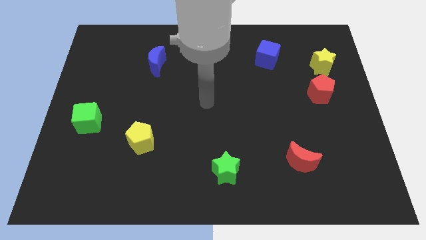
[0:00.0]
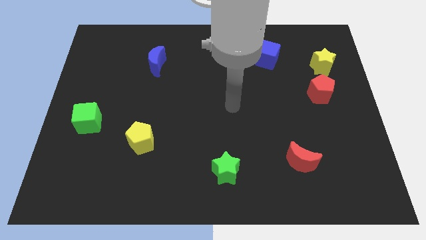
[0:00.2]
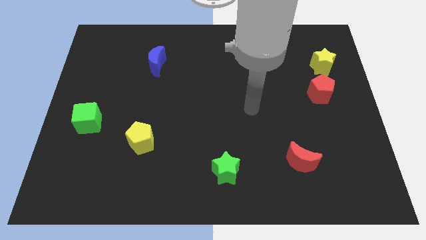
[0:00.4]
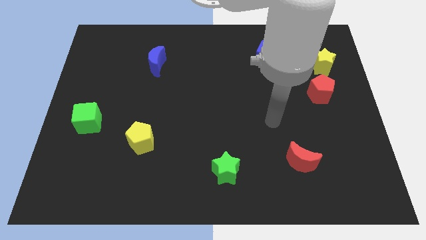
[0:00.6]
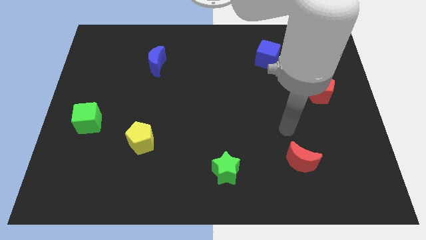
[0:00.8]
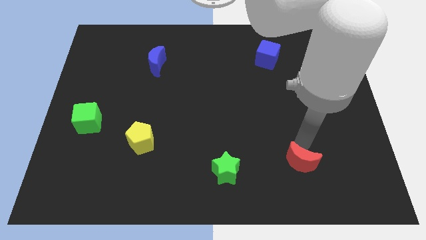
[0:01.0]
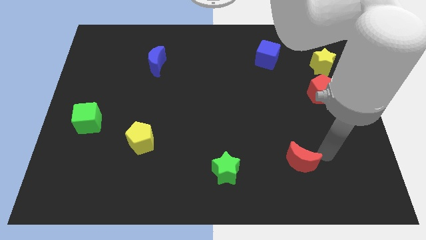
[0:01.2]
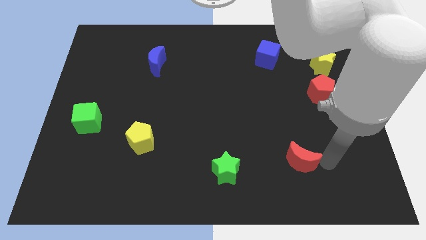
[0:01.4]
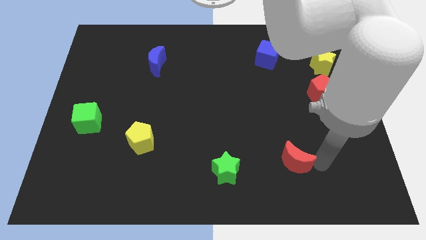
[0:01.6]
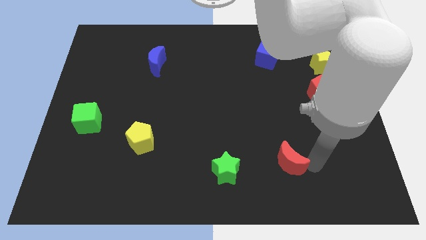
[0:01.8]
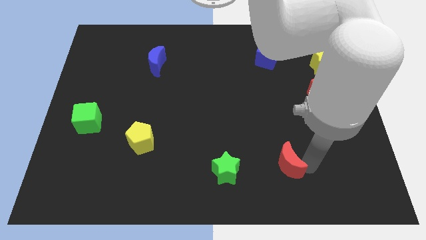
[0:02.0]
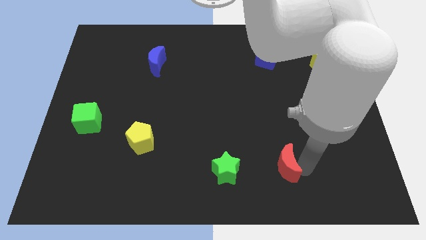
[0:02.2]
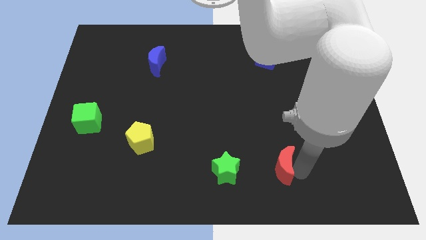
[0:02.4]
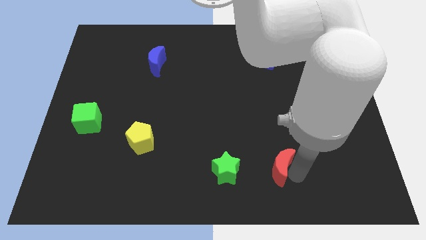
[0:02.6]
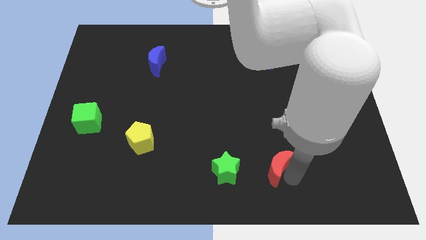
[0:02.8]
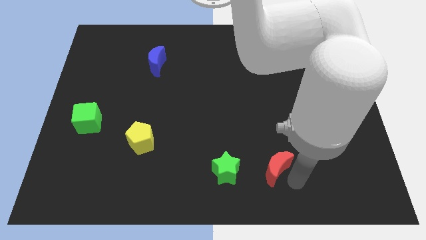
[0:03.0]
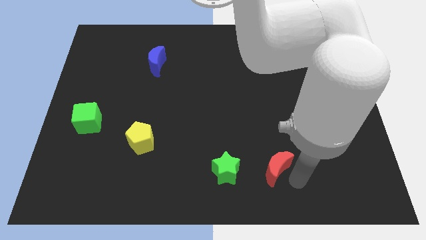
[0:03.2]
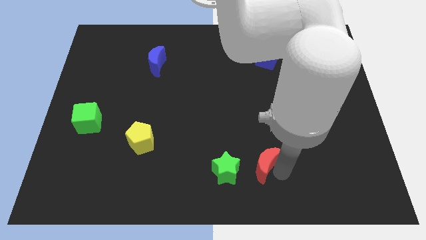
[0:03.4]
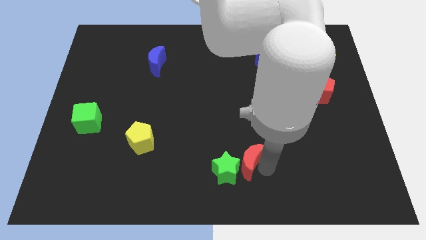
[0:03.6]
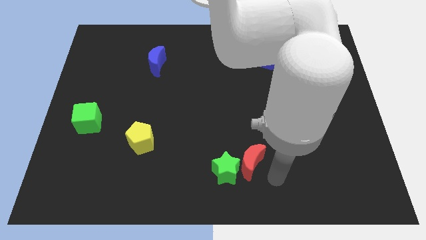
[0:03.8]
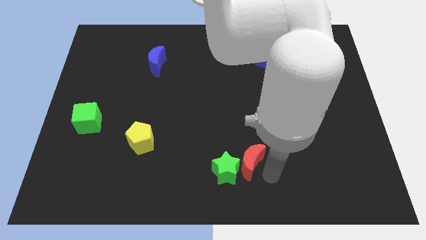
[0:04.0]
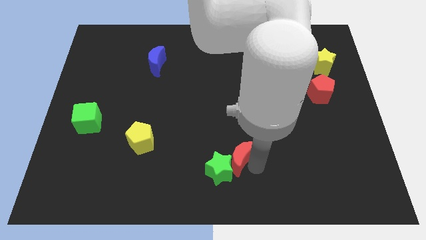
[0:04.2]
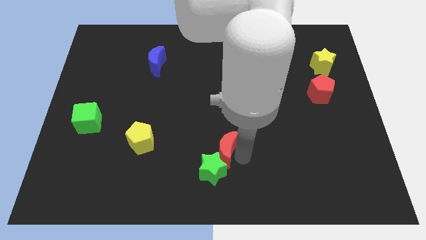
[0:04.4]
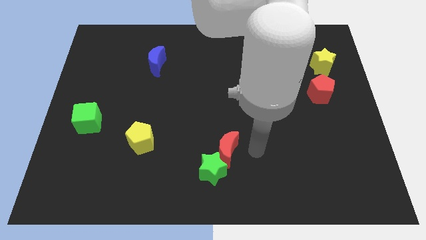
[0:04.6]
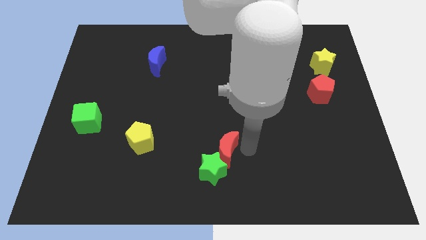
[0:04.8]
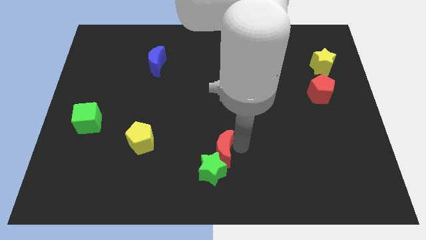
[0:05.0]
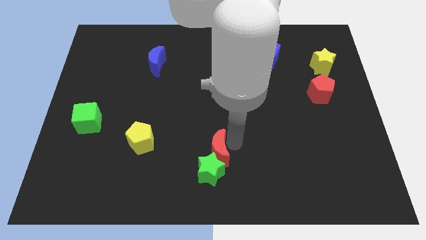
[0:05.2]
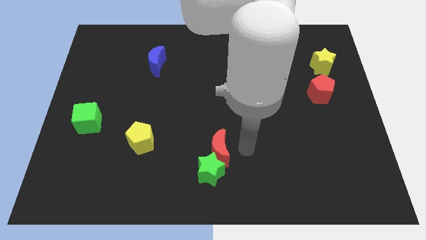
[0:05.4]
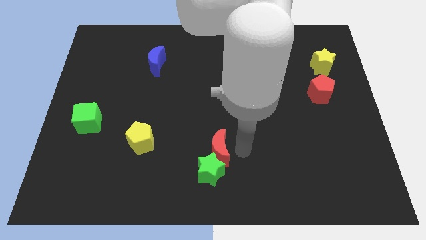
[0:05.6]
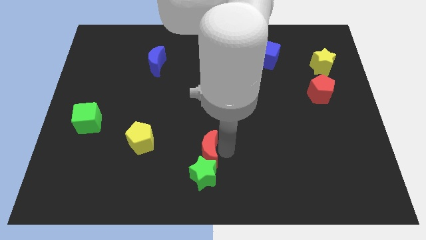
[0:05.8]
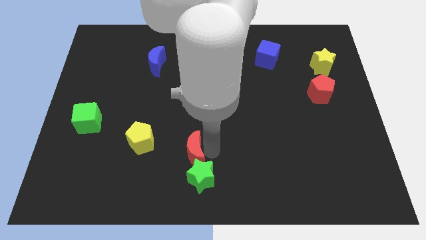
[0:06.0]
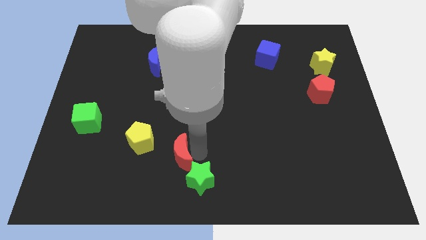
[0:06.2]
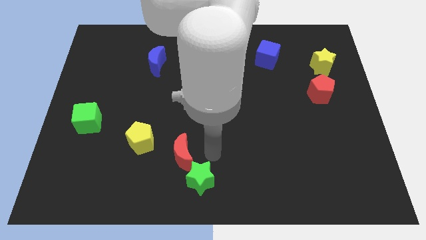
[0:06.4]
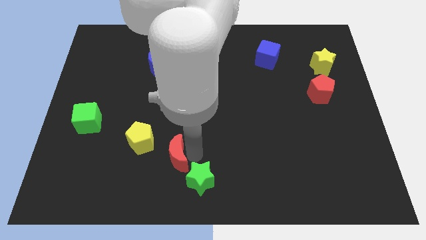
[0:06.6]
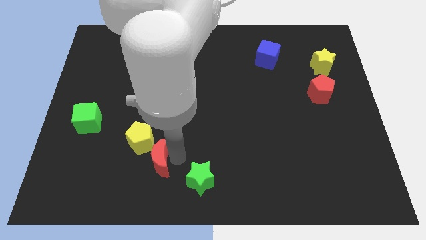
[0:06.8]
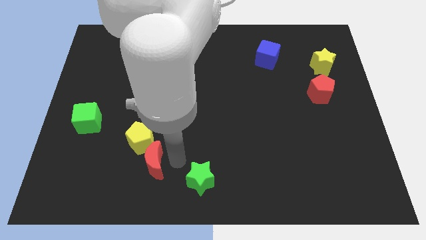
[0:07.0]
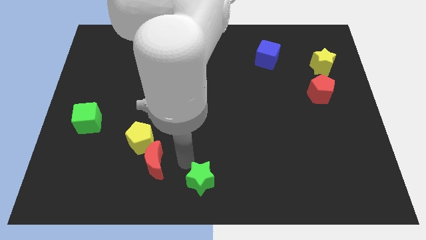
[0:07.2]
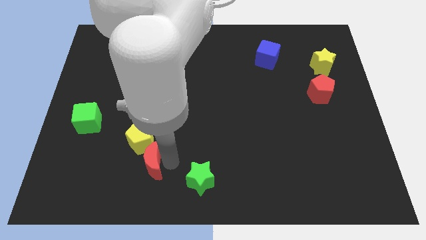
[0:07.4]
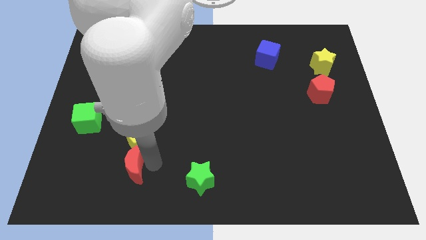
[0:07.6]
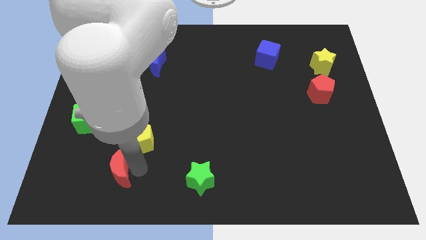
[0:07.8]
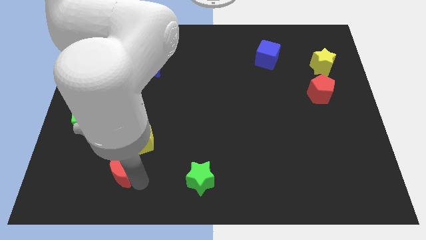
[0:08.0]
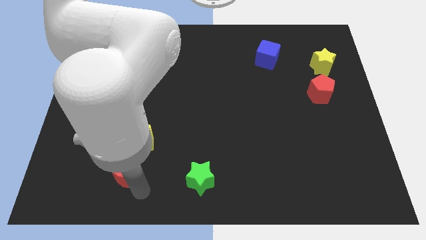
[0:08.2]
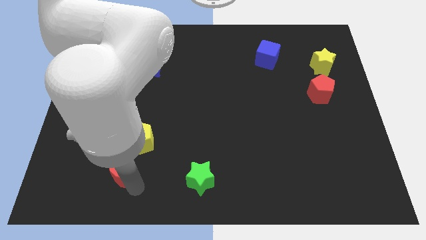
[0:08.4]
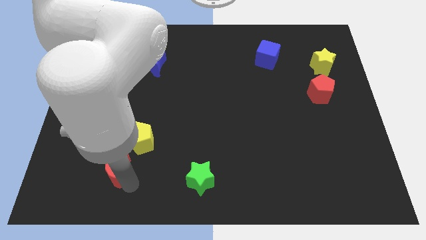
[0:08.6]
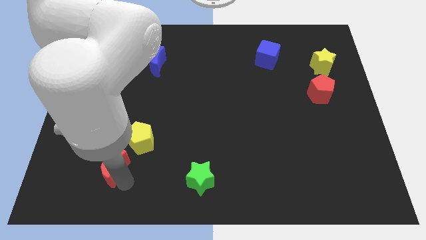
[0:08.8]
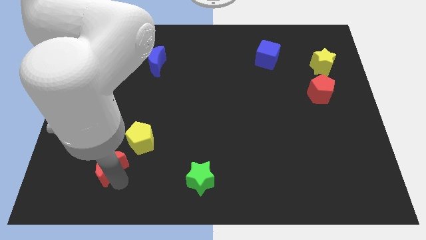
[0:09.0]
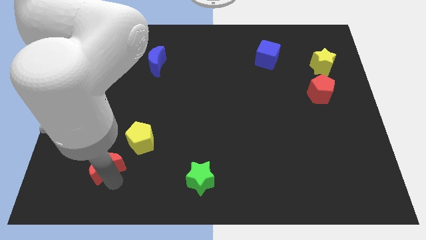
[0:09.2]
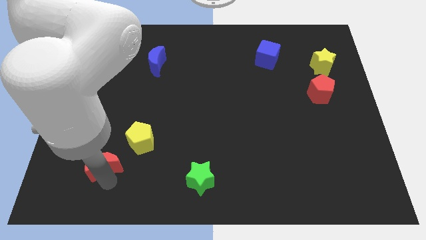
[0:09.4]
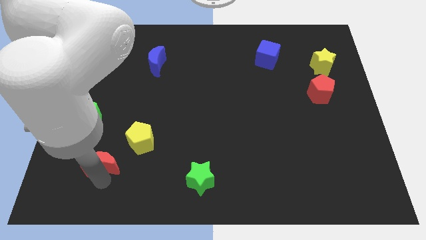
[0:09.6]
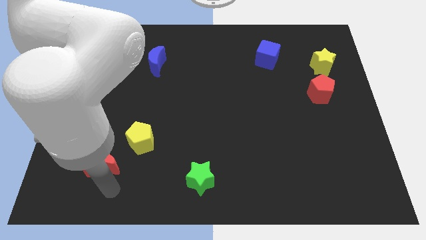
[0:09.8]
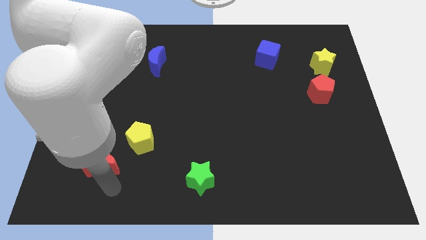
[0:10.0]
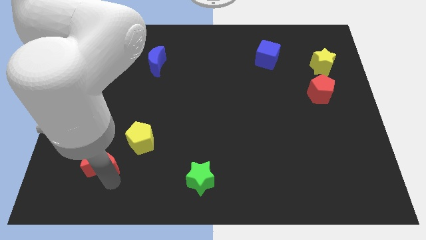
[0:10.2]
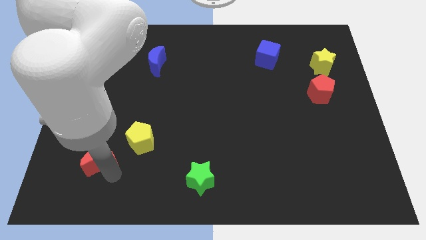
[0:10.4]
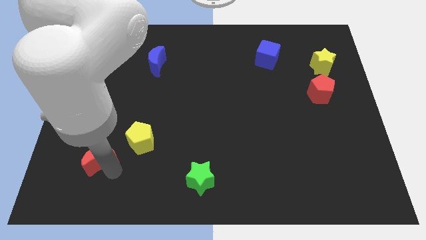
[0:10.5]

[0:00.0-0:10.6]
put the red moon left of the yellow pentagon

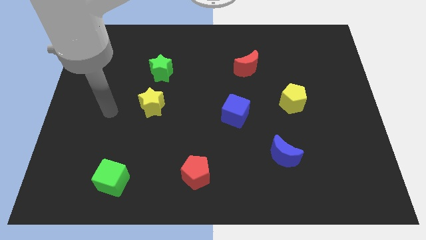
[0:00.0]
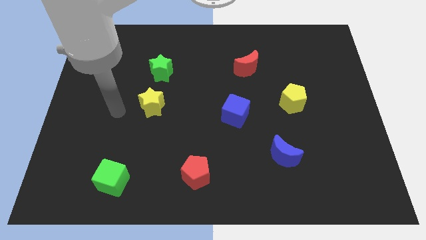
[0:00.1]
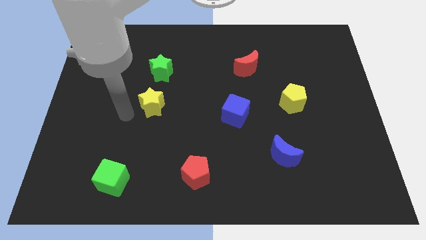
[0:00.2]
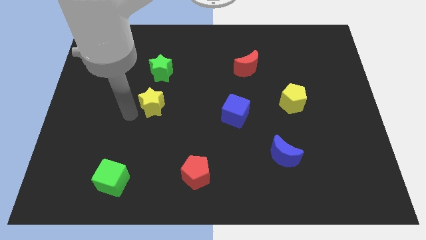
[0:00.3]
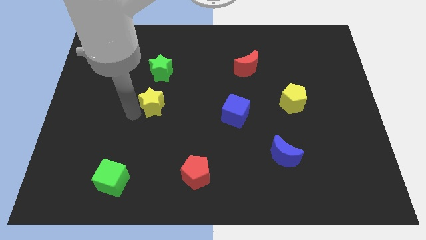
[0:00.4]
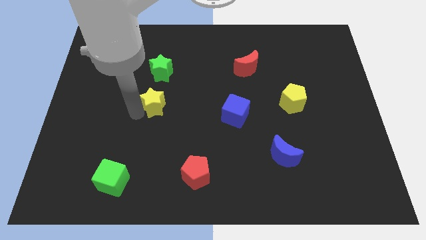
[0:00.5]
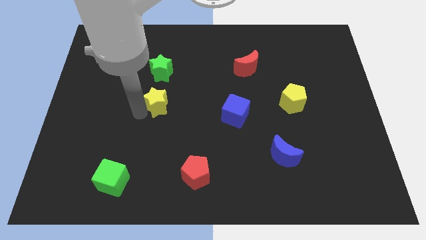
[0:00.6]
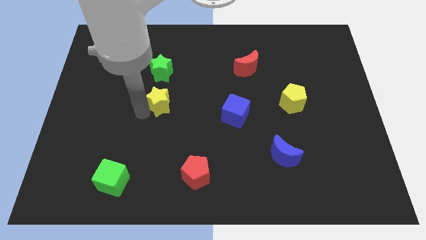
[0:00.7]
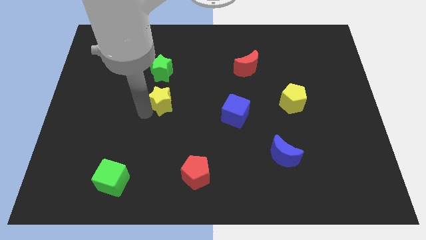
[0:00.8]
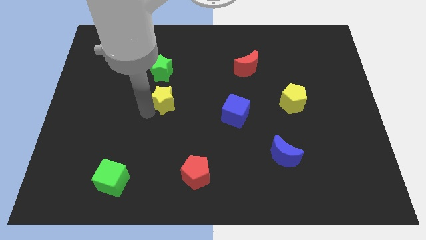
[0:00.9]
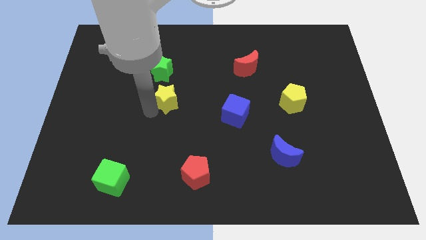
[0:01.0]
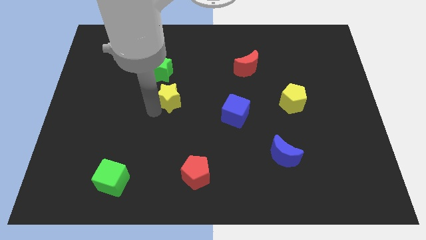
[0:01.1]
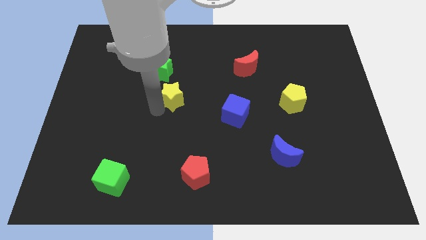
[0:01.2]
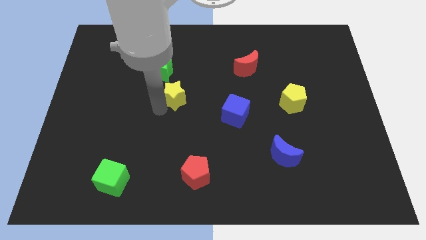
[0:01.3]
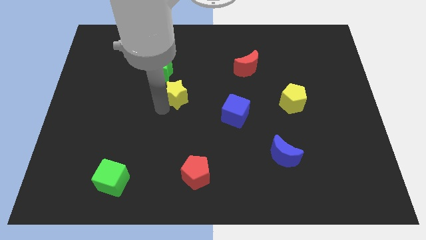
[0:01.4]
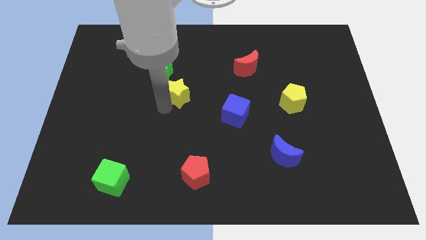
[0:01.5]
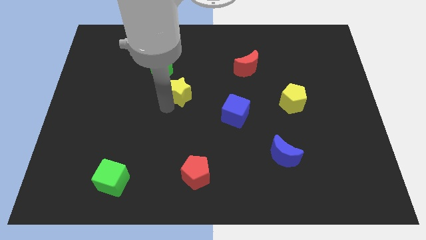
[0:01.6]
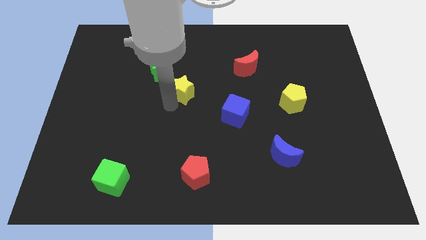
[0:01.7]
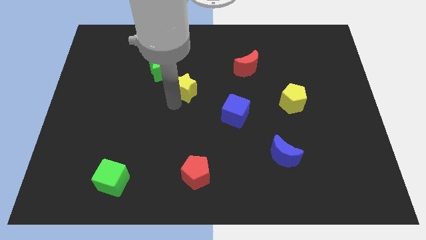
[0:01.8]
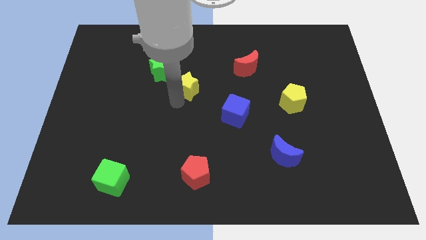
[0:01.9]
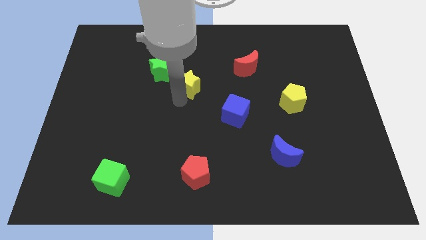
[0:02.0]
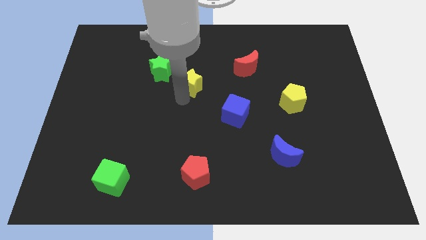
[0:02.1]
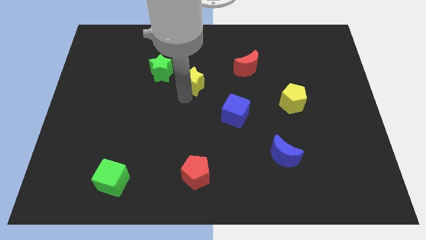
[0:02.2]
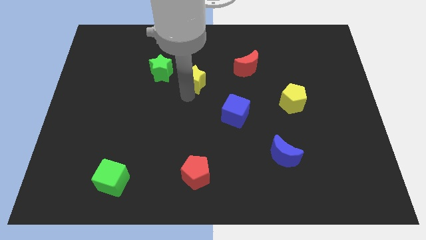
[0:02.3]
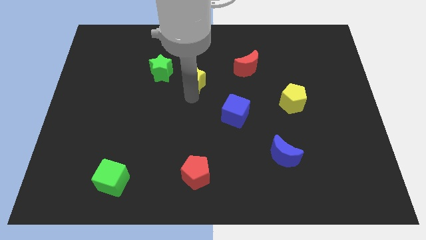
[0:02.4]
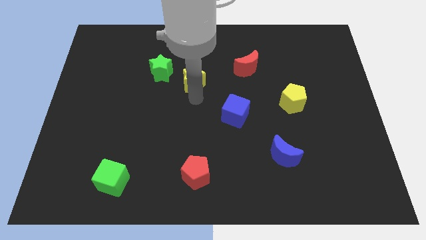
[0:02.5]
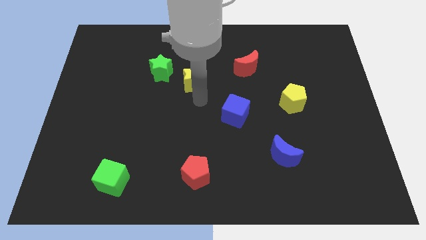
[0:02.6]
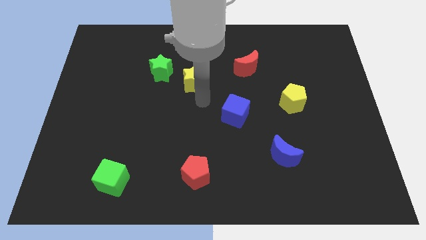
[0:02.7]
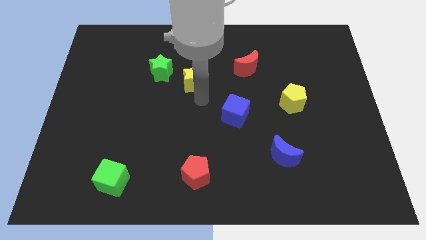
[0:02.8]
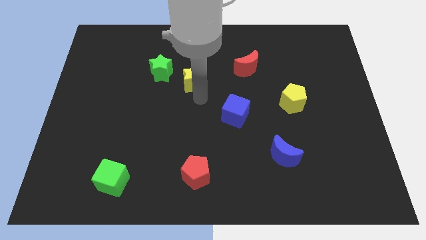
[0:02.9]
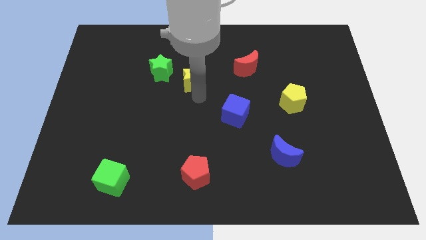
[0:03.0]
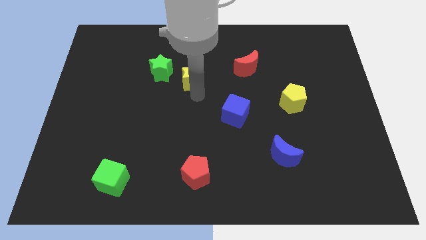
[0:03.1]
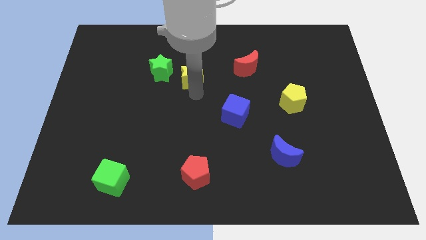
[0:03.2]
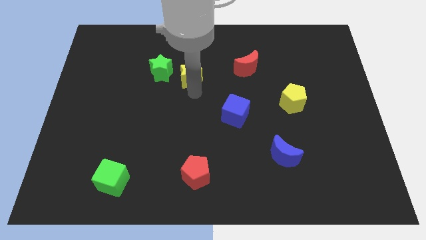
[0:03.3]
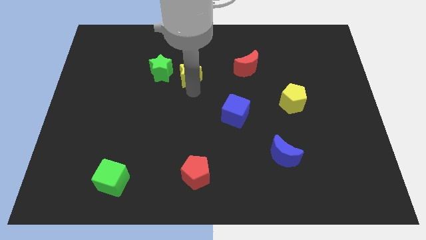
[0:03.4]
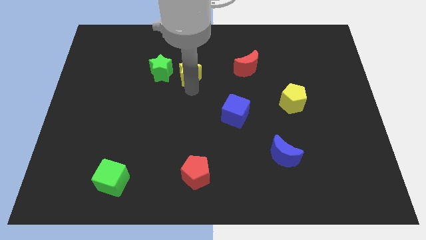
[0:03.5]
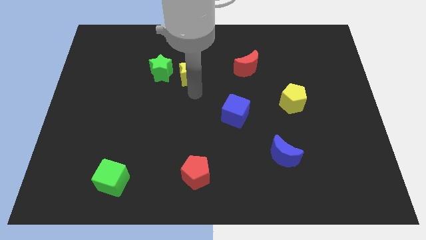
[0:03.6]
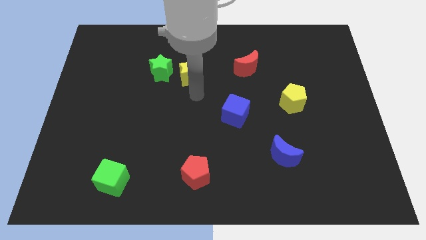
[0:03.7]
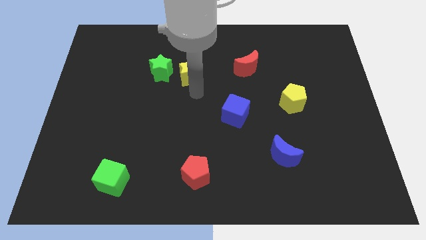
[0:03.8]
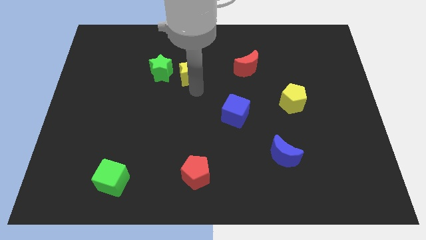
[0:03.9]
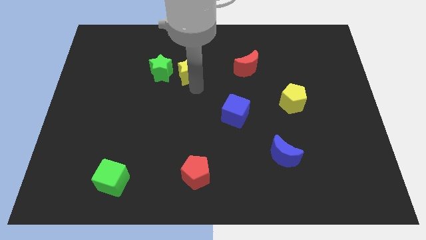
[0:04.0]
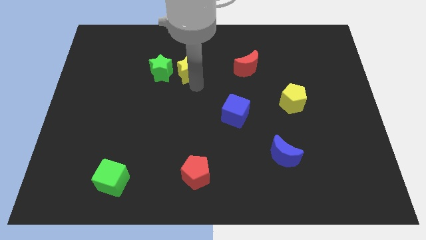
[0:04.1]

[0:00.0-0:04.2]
put the yellow star to the top right side of the green star
